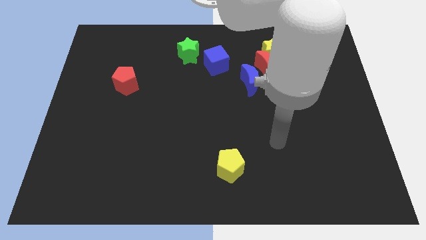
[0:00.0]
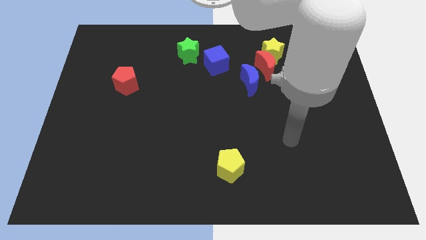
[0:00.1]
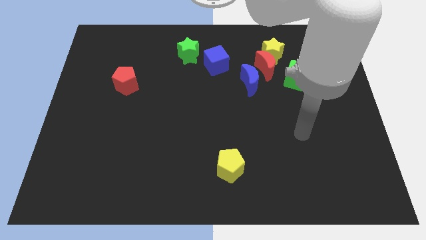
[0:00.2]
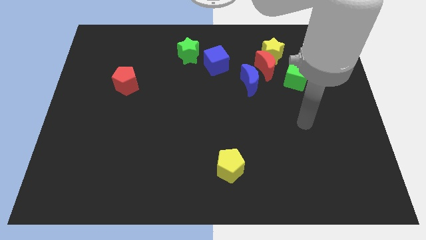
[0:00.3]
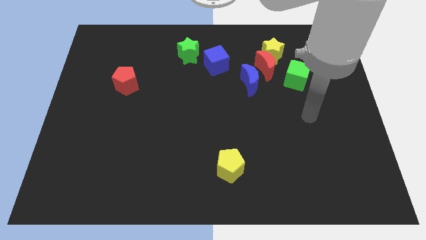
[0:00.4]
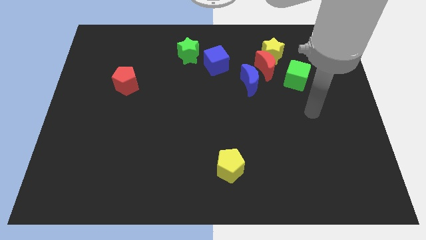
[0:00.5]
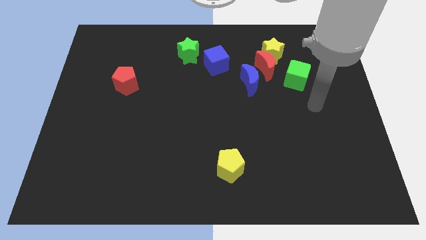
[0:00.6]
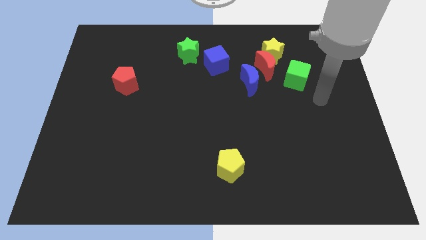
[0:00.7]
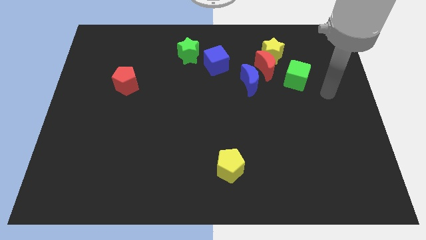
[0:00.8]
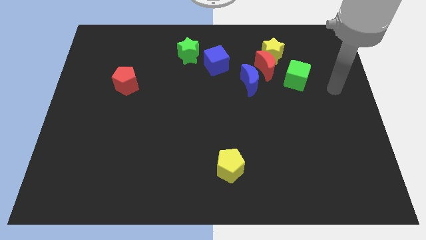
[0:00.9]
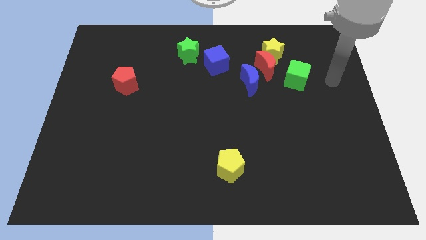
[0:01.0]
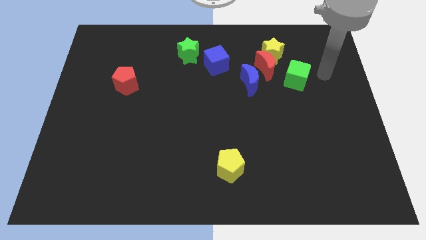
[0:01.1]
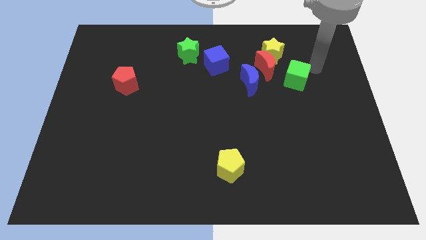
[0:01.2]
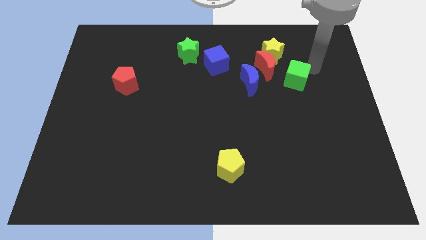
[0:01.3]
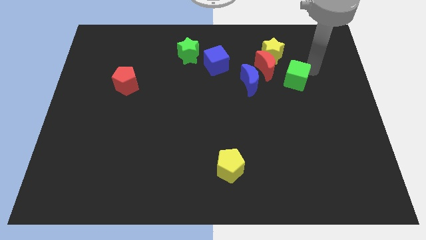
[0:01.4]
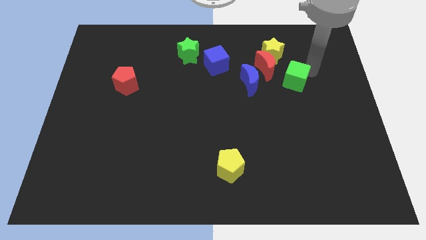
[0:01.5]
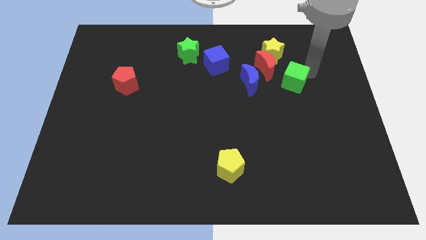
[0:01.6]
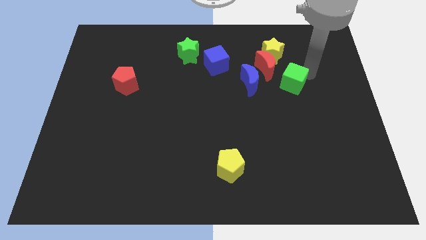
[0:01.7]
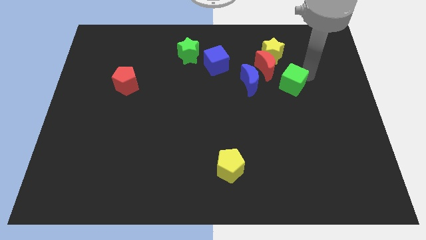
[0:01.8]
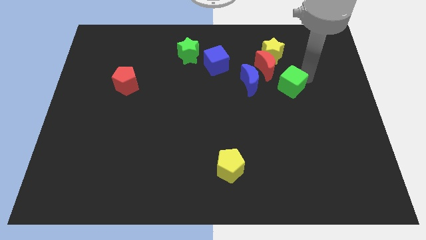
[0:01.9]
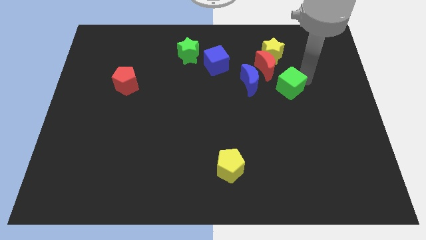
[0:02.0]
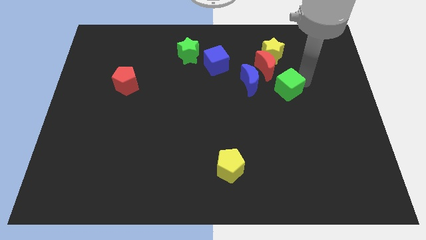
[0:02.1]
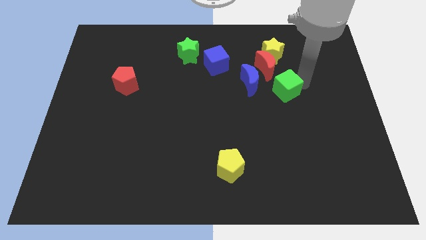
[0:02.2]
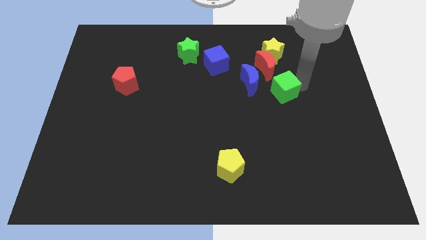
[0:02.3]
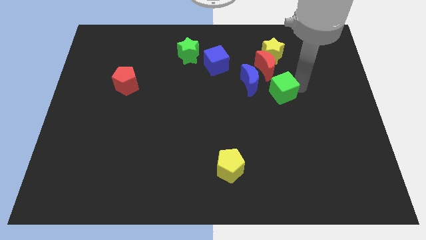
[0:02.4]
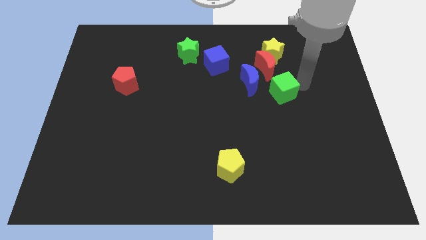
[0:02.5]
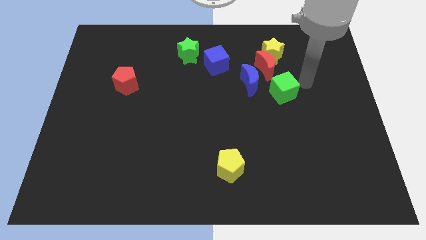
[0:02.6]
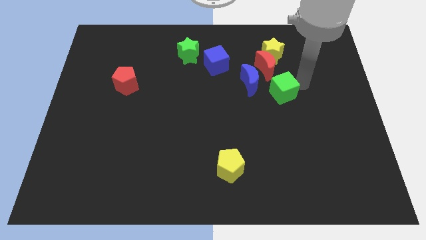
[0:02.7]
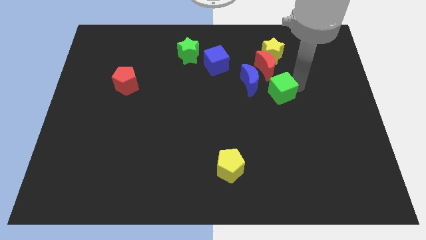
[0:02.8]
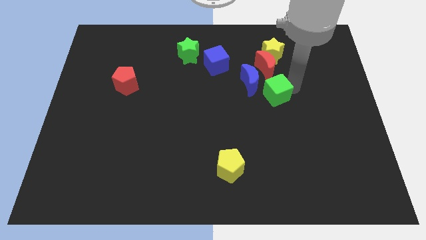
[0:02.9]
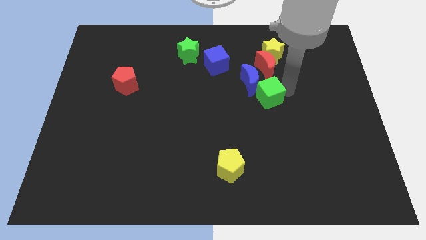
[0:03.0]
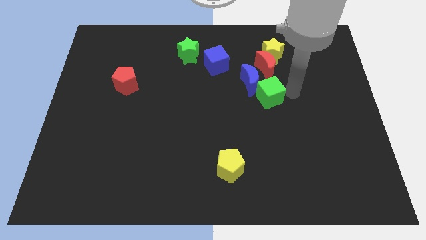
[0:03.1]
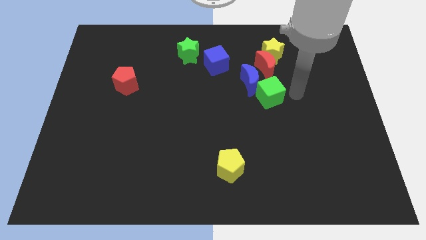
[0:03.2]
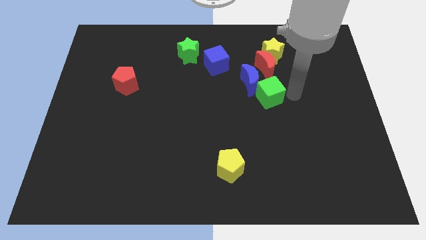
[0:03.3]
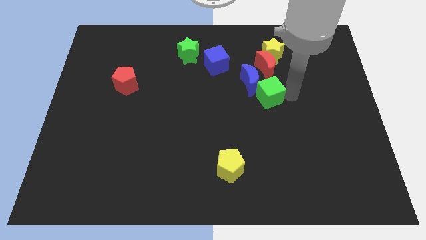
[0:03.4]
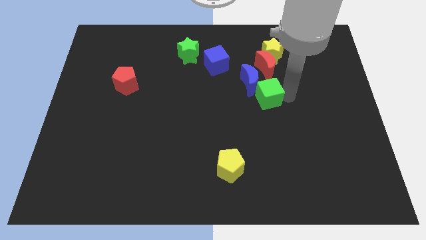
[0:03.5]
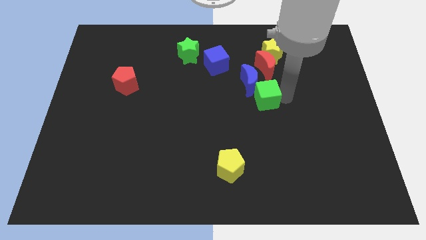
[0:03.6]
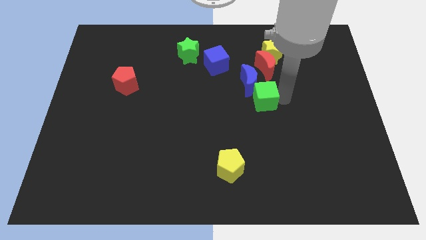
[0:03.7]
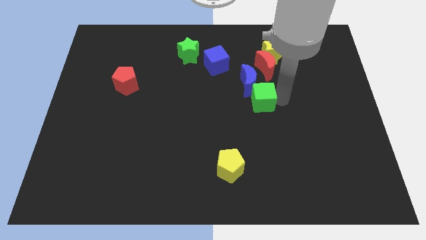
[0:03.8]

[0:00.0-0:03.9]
push the green cube left a little

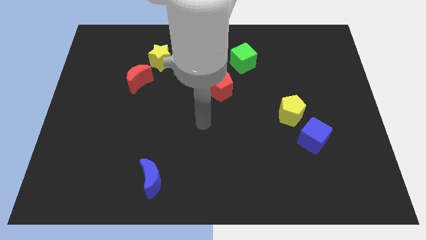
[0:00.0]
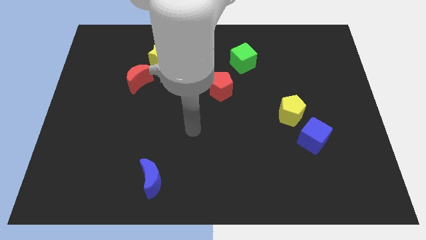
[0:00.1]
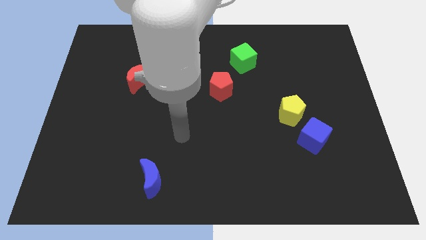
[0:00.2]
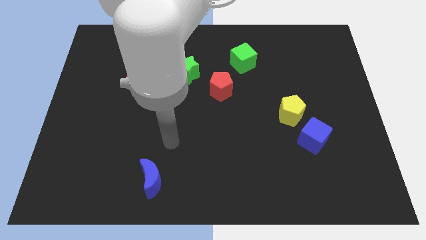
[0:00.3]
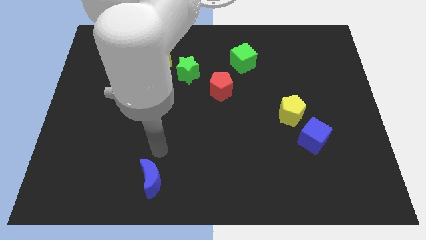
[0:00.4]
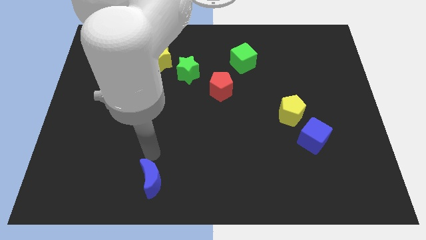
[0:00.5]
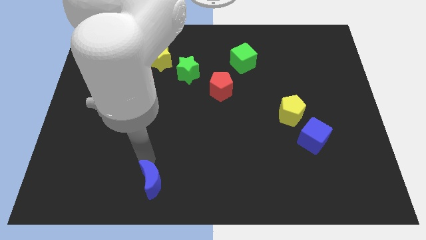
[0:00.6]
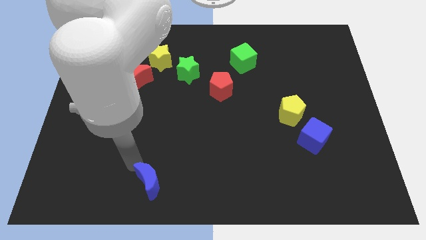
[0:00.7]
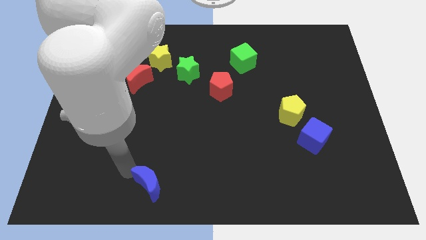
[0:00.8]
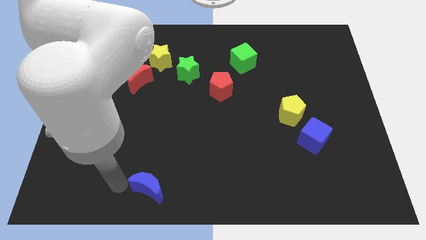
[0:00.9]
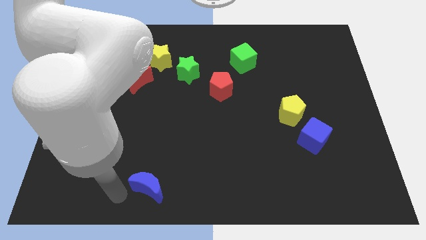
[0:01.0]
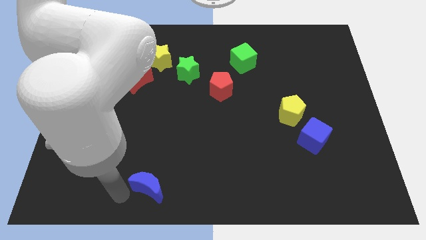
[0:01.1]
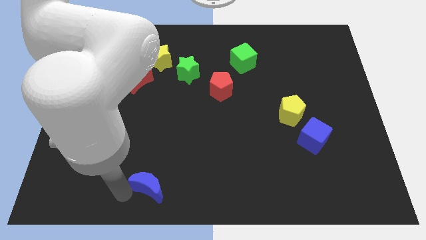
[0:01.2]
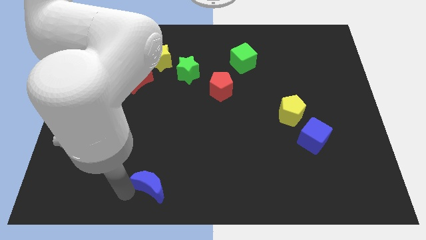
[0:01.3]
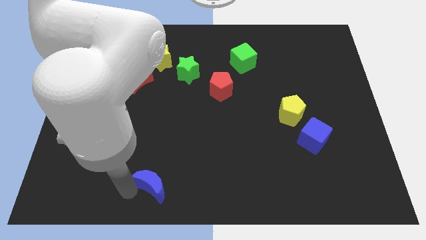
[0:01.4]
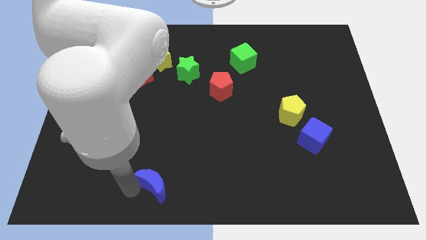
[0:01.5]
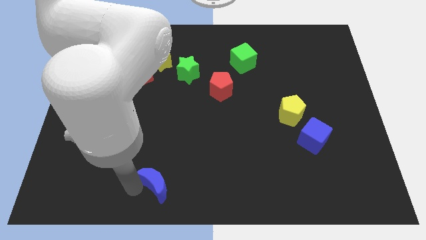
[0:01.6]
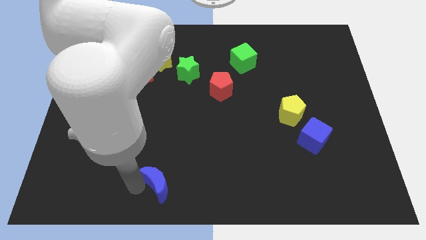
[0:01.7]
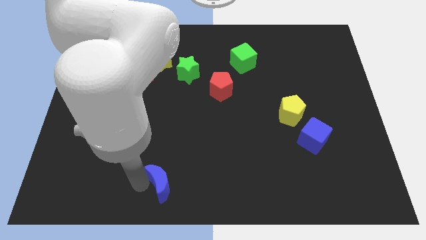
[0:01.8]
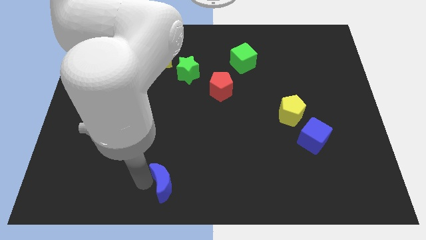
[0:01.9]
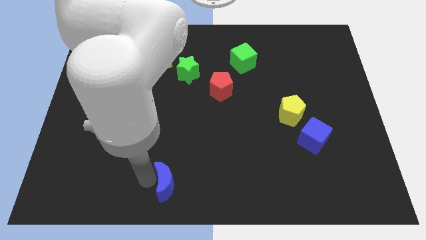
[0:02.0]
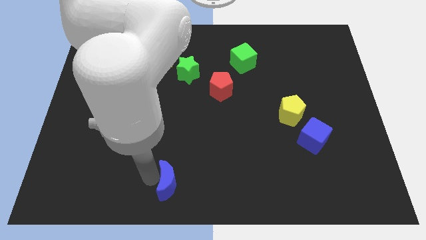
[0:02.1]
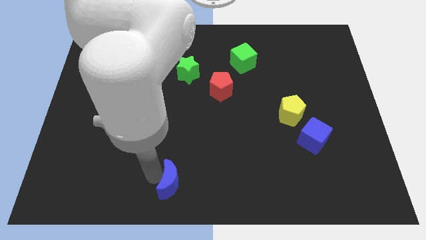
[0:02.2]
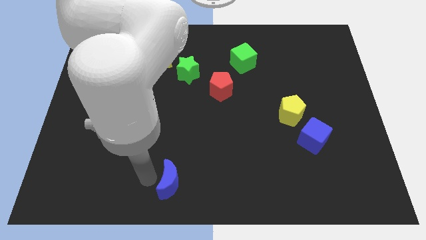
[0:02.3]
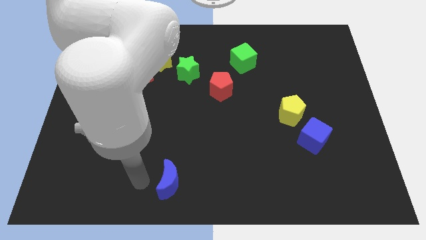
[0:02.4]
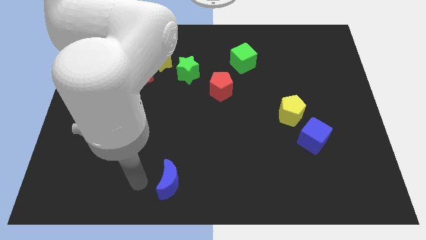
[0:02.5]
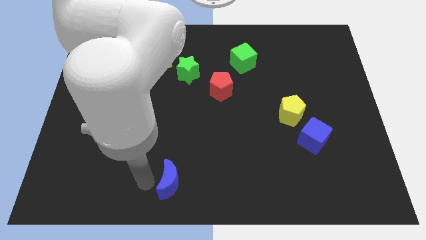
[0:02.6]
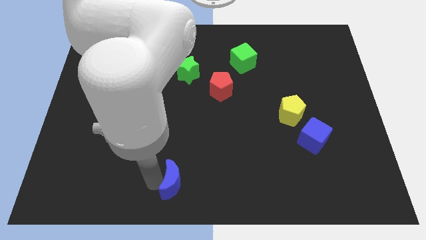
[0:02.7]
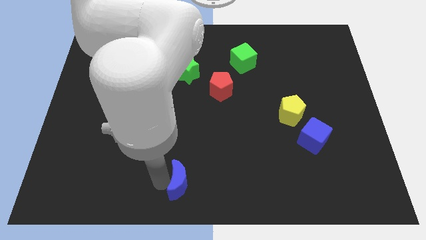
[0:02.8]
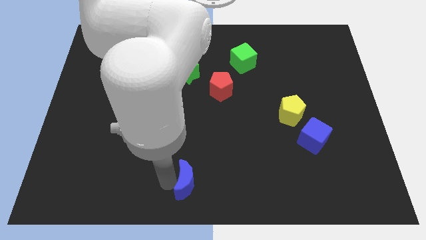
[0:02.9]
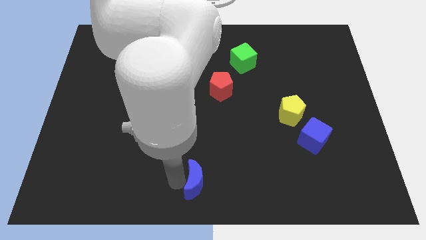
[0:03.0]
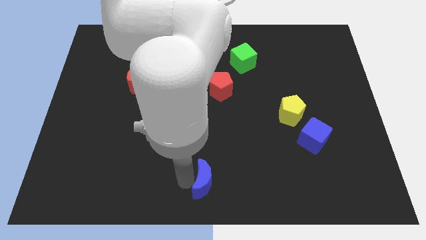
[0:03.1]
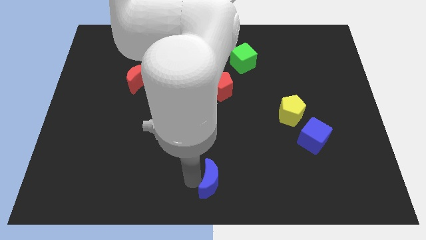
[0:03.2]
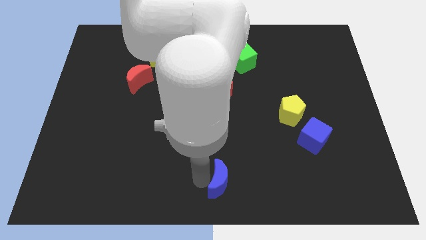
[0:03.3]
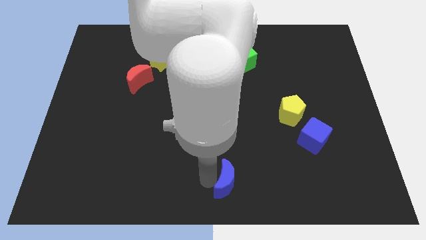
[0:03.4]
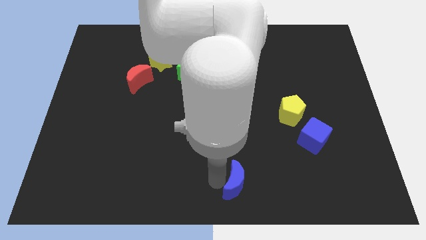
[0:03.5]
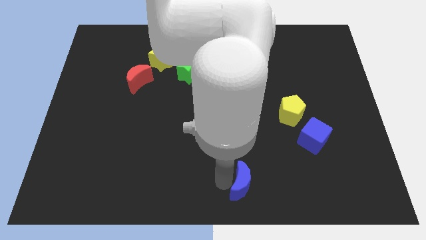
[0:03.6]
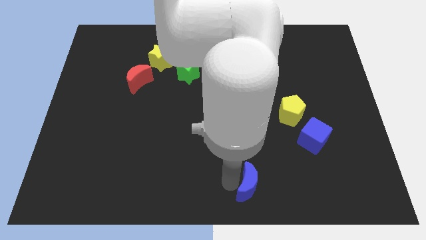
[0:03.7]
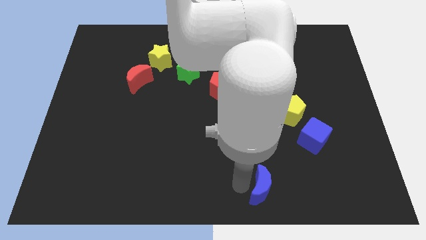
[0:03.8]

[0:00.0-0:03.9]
move the blue moon right
